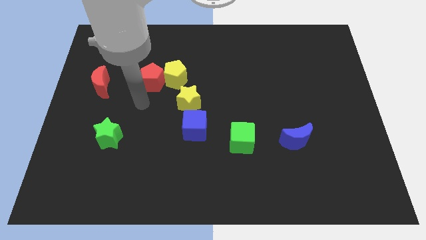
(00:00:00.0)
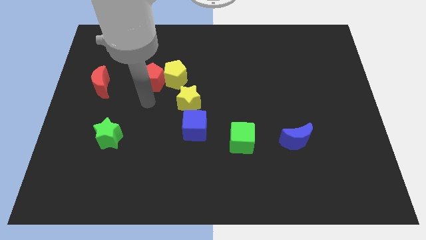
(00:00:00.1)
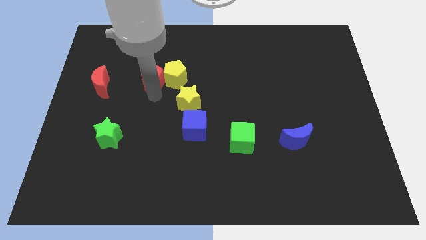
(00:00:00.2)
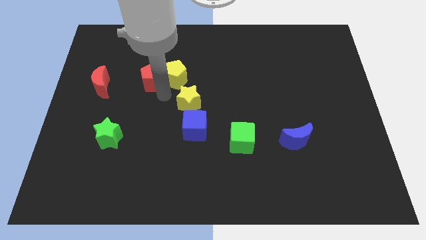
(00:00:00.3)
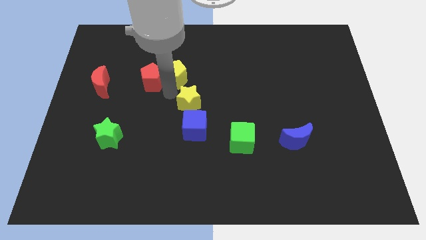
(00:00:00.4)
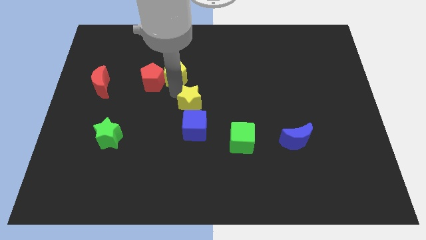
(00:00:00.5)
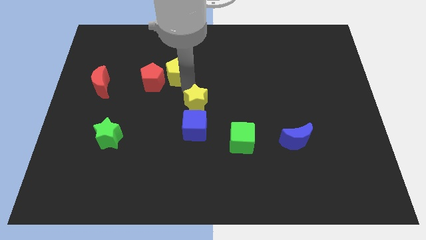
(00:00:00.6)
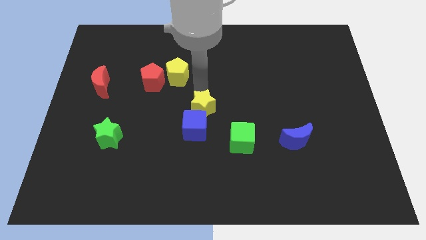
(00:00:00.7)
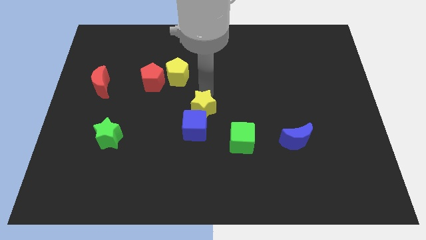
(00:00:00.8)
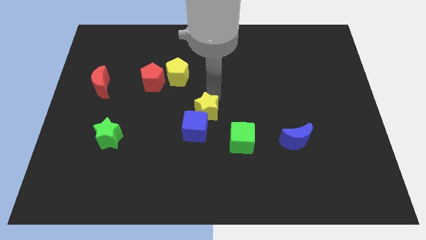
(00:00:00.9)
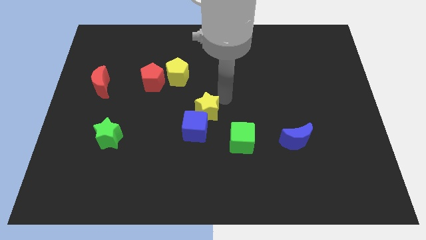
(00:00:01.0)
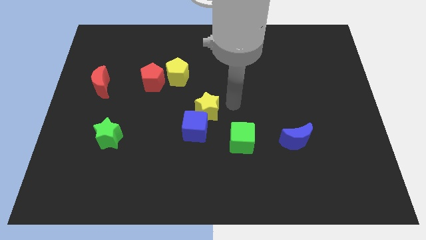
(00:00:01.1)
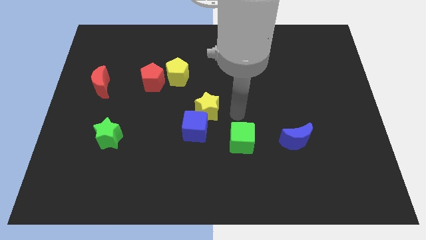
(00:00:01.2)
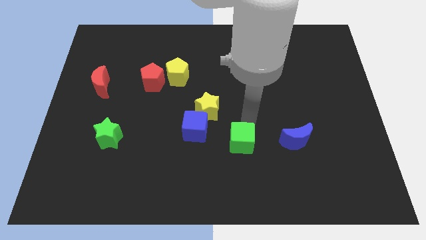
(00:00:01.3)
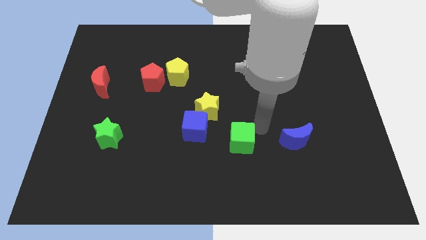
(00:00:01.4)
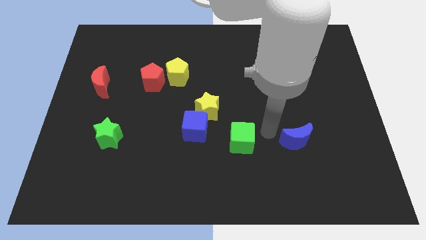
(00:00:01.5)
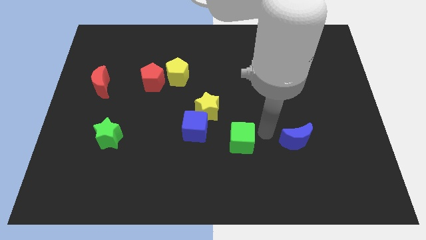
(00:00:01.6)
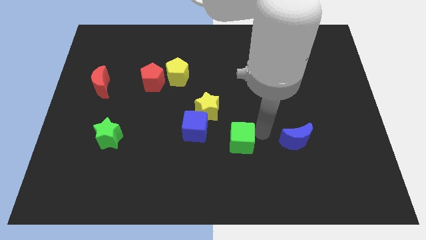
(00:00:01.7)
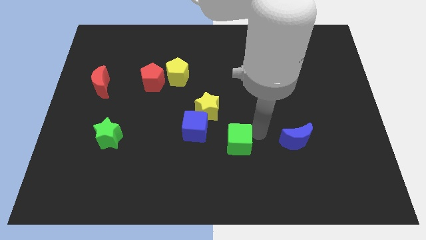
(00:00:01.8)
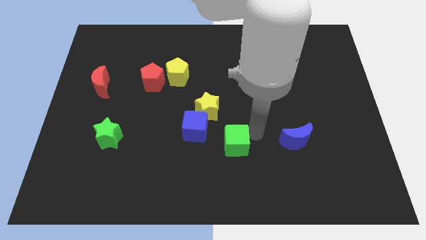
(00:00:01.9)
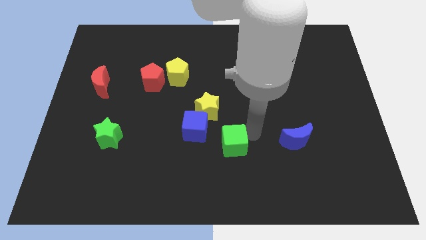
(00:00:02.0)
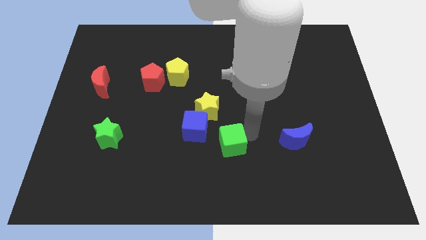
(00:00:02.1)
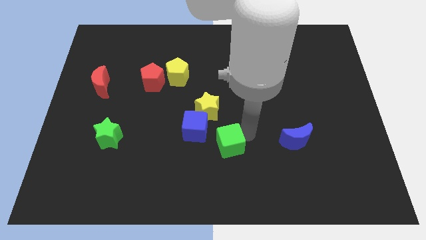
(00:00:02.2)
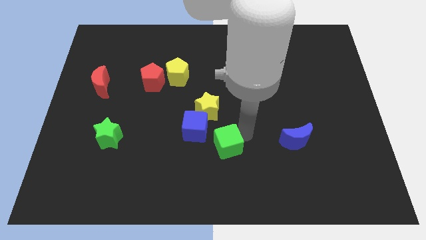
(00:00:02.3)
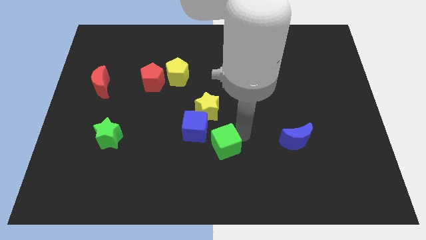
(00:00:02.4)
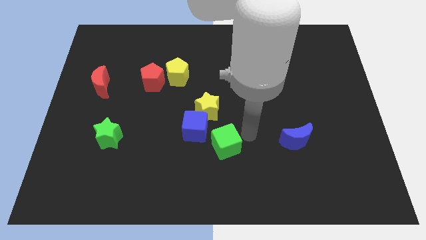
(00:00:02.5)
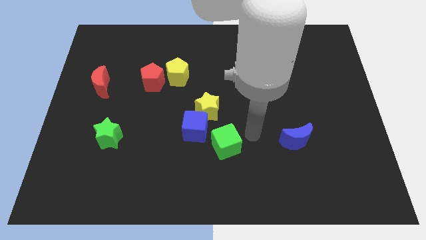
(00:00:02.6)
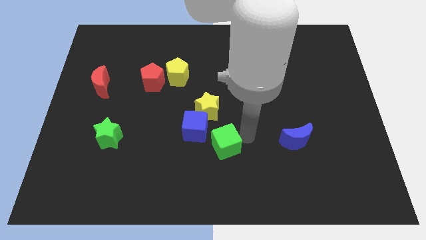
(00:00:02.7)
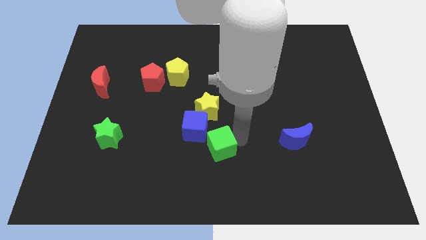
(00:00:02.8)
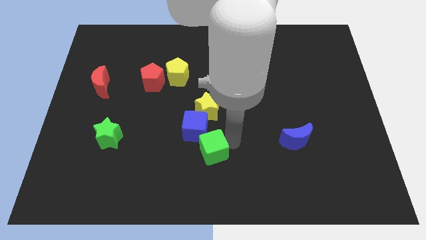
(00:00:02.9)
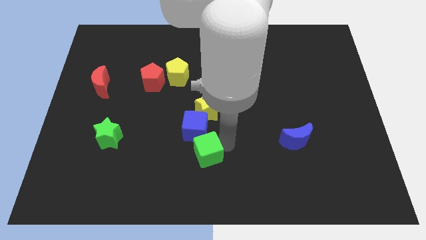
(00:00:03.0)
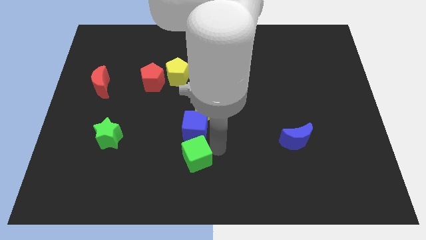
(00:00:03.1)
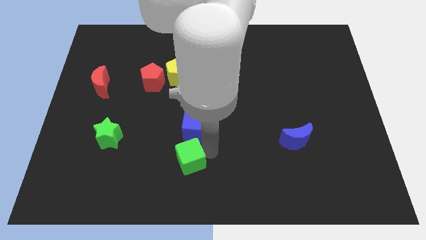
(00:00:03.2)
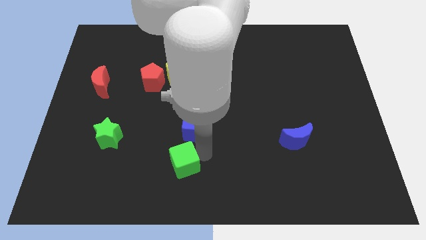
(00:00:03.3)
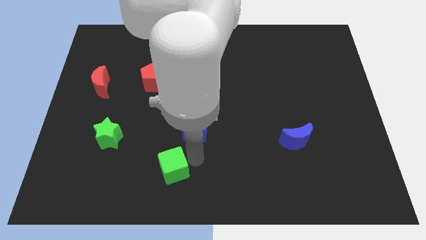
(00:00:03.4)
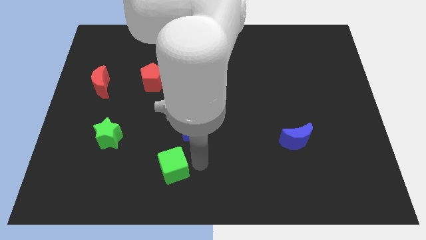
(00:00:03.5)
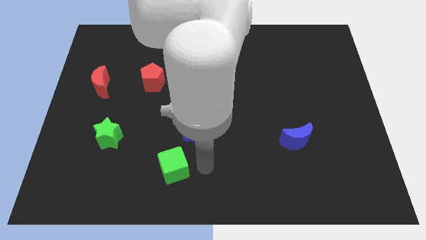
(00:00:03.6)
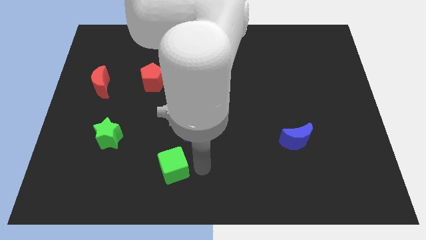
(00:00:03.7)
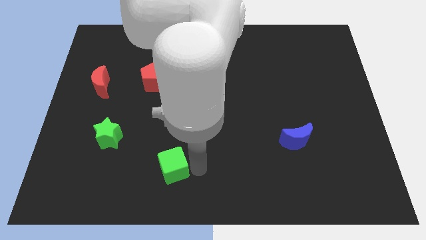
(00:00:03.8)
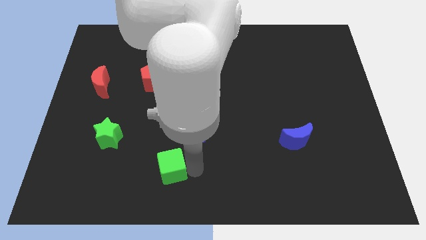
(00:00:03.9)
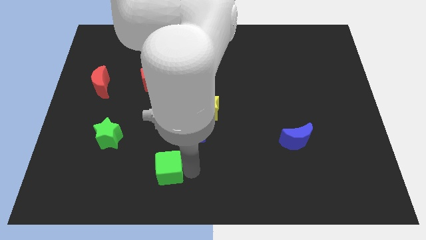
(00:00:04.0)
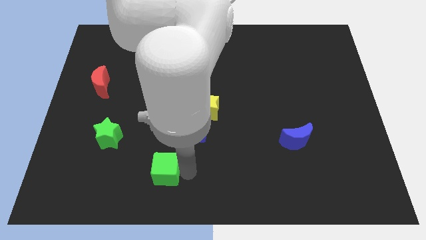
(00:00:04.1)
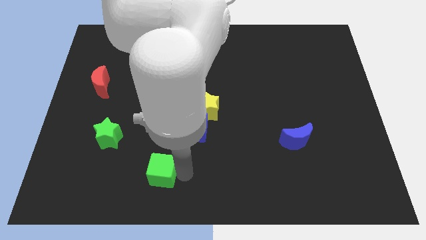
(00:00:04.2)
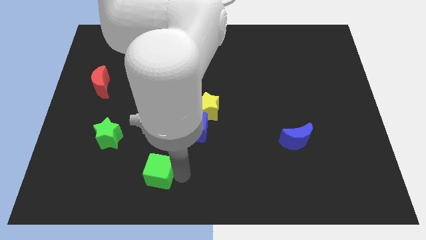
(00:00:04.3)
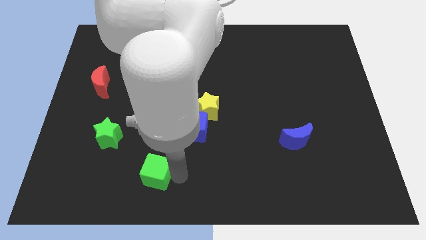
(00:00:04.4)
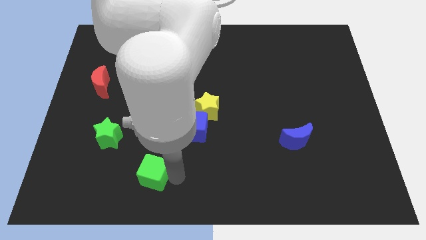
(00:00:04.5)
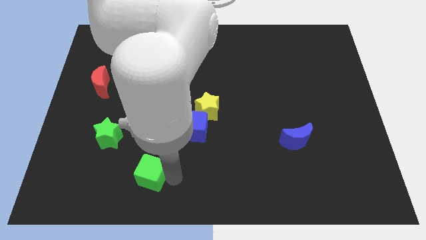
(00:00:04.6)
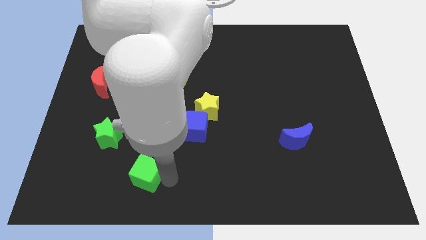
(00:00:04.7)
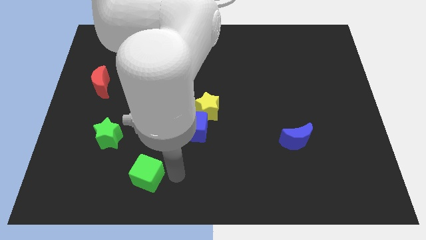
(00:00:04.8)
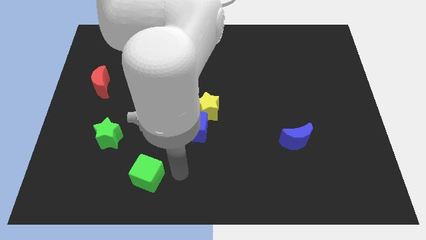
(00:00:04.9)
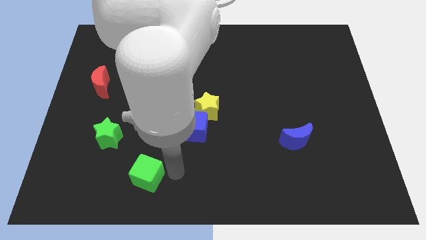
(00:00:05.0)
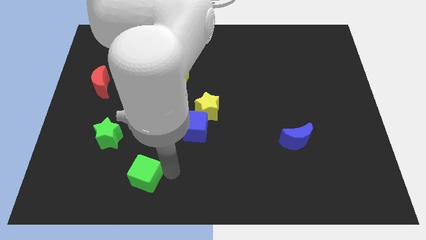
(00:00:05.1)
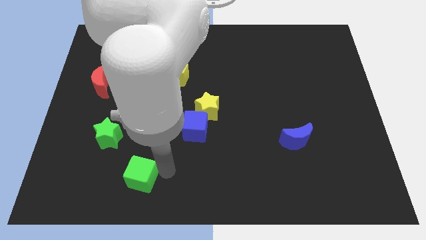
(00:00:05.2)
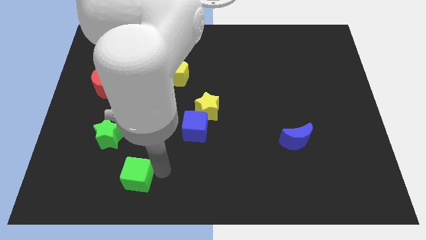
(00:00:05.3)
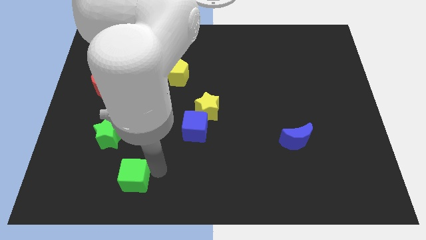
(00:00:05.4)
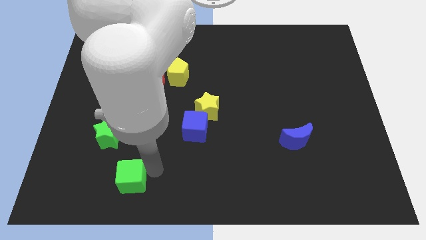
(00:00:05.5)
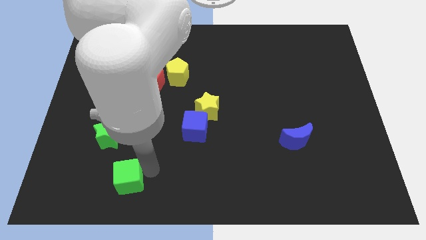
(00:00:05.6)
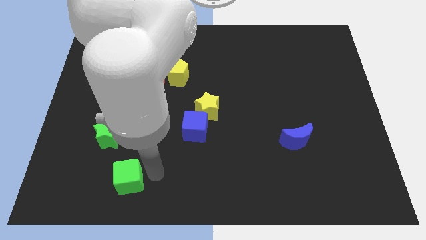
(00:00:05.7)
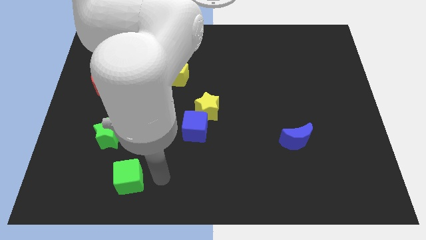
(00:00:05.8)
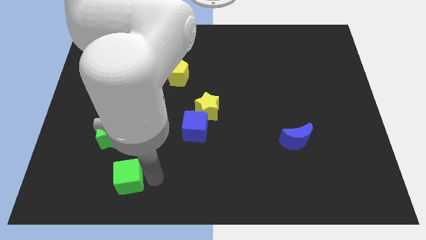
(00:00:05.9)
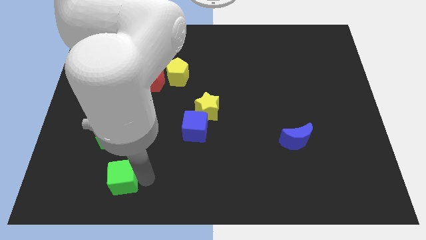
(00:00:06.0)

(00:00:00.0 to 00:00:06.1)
move the green cube to the bottom side of the green star

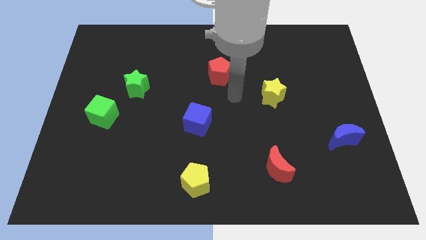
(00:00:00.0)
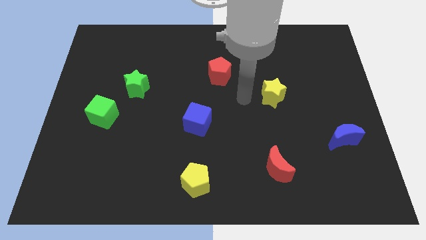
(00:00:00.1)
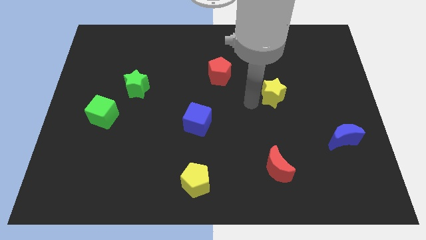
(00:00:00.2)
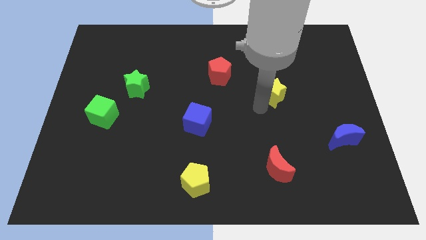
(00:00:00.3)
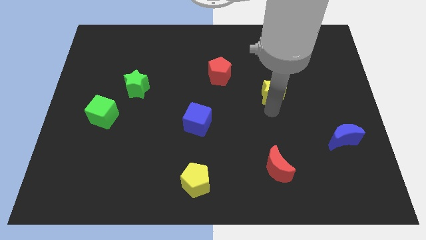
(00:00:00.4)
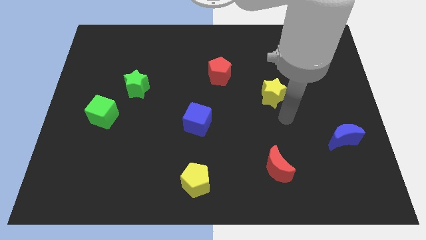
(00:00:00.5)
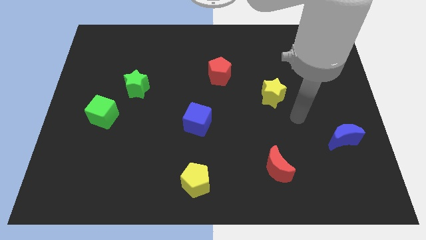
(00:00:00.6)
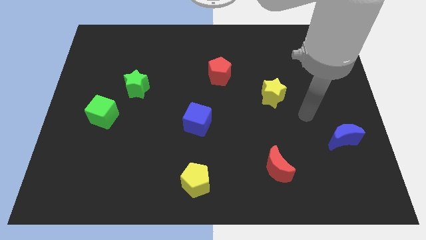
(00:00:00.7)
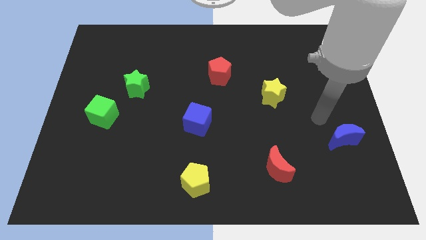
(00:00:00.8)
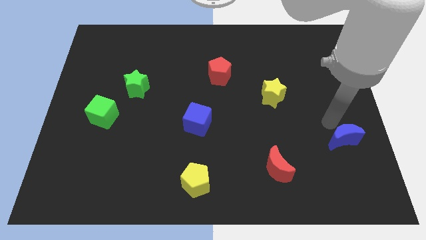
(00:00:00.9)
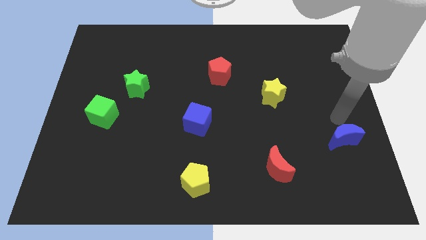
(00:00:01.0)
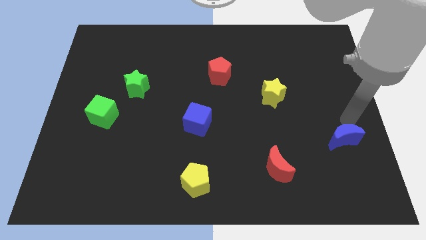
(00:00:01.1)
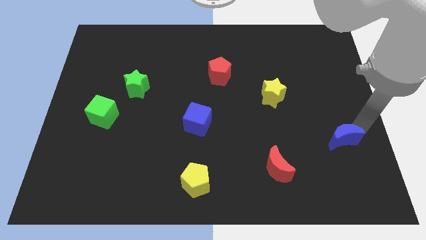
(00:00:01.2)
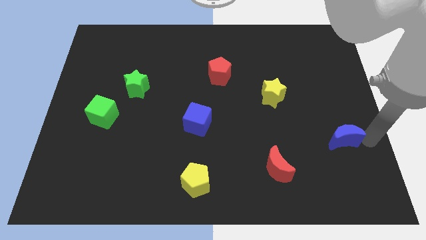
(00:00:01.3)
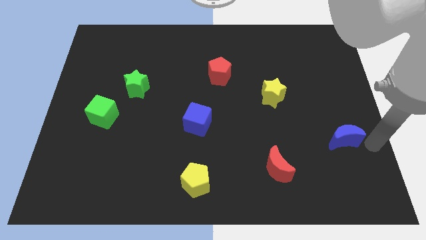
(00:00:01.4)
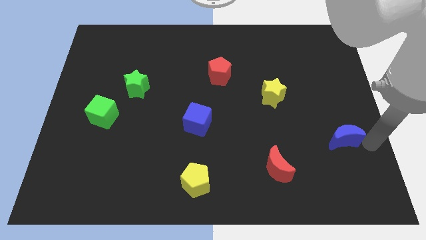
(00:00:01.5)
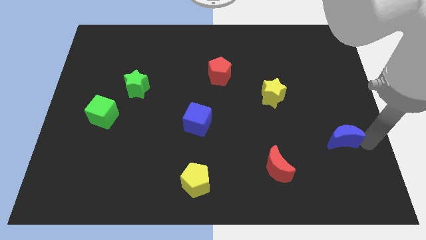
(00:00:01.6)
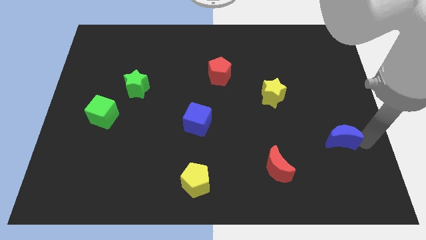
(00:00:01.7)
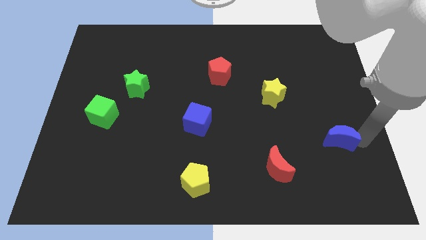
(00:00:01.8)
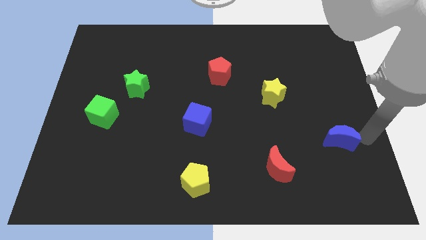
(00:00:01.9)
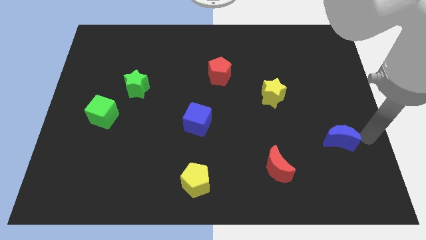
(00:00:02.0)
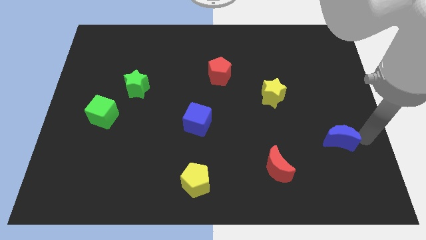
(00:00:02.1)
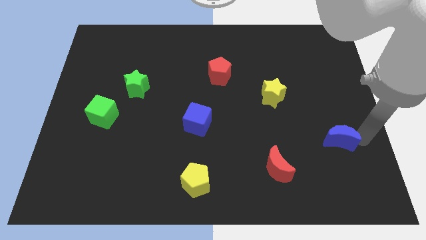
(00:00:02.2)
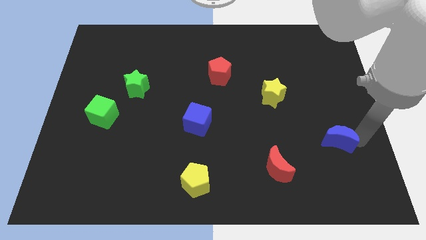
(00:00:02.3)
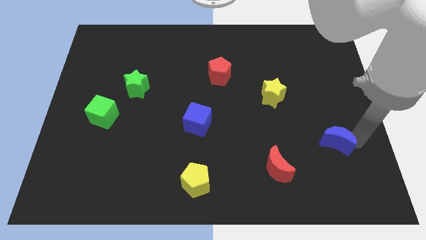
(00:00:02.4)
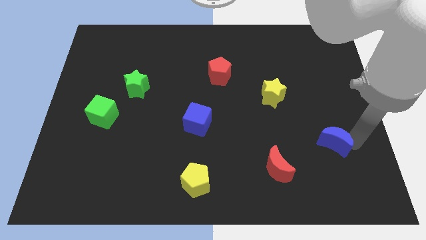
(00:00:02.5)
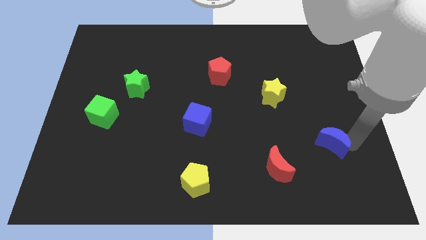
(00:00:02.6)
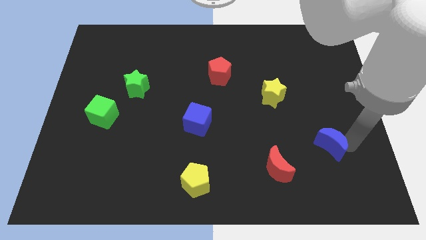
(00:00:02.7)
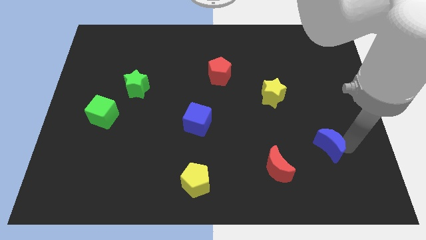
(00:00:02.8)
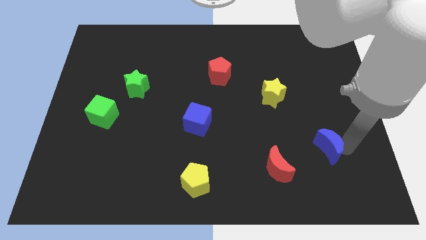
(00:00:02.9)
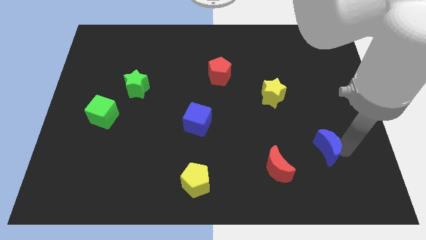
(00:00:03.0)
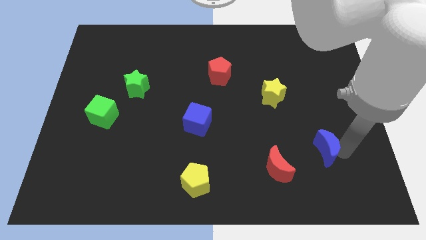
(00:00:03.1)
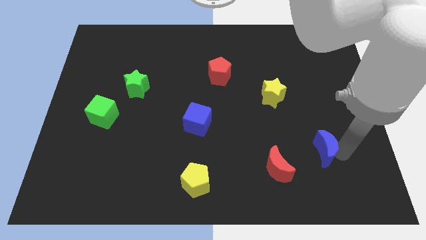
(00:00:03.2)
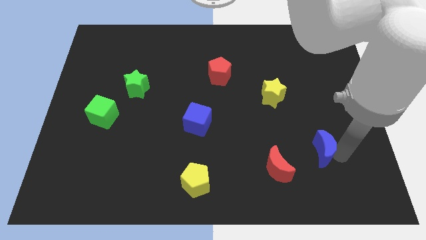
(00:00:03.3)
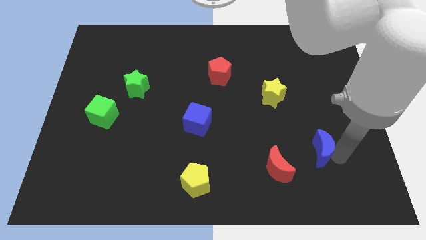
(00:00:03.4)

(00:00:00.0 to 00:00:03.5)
move the blue moon to the top right side of the red moon
